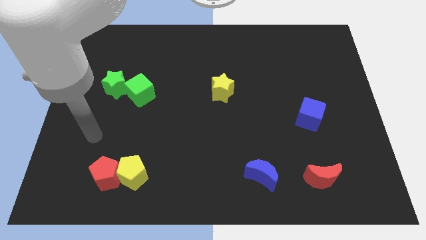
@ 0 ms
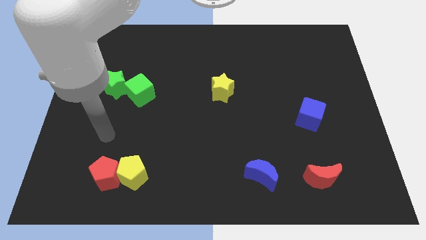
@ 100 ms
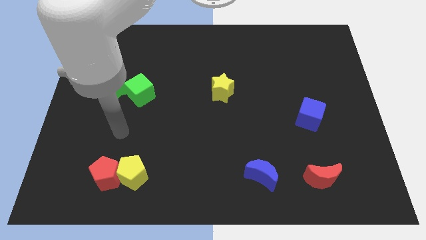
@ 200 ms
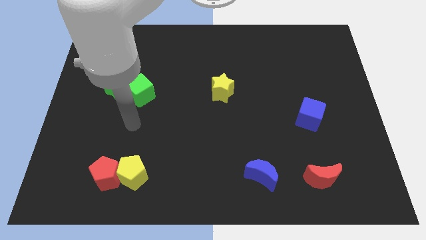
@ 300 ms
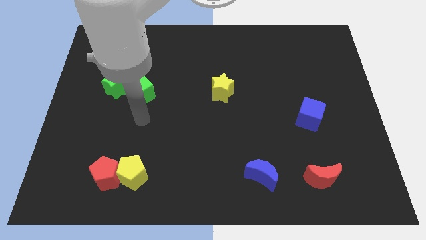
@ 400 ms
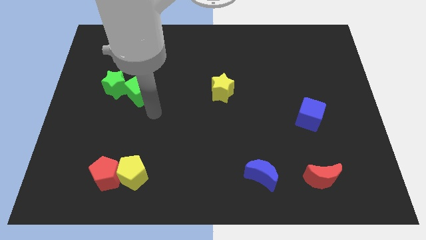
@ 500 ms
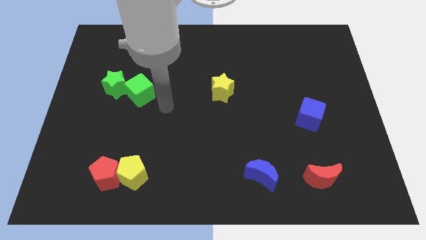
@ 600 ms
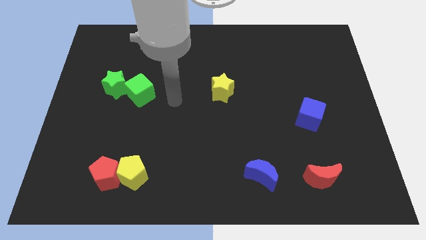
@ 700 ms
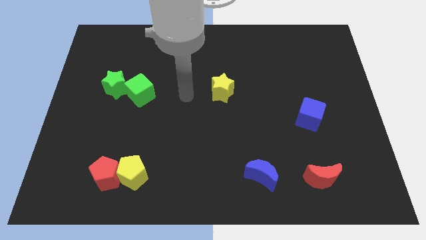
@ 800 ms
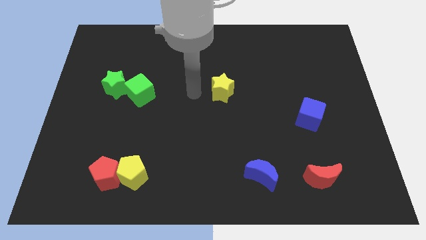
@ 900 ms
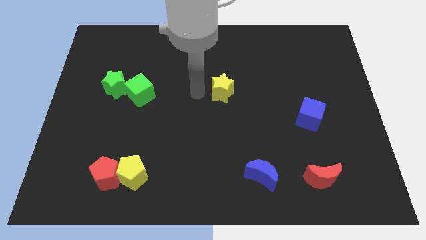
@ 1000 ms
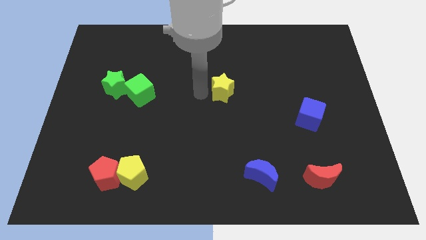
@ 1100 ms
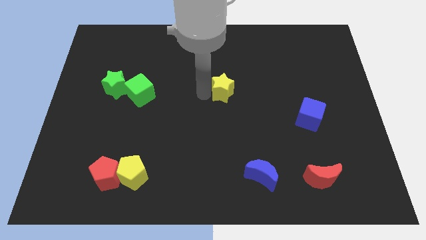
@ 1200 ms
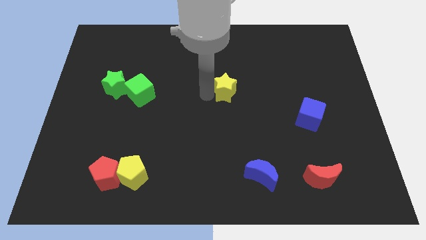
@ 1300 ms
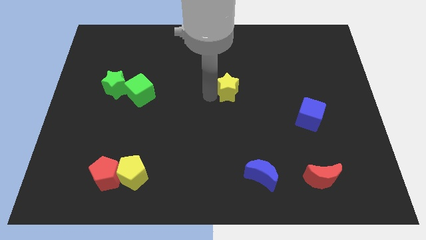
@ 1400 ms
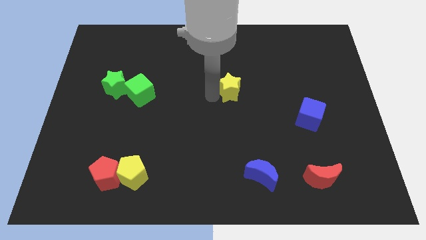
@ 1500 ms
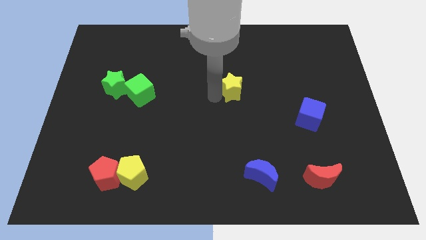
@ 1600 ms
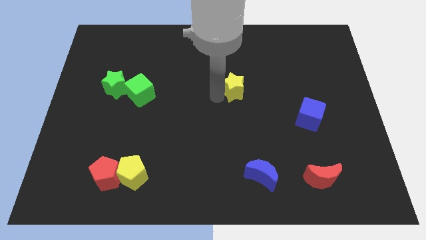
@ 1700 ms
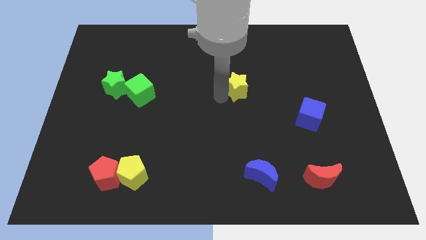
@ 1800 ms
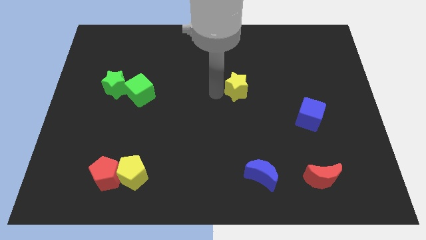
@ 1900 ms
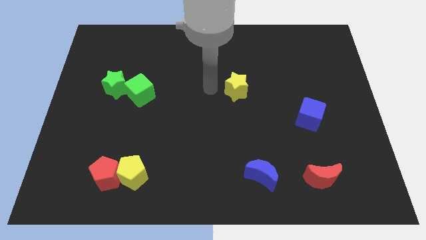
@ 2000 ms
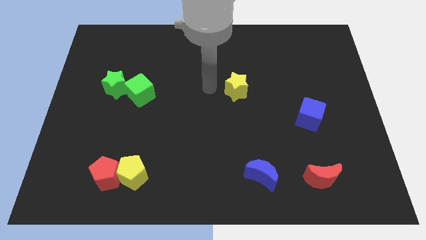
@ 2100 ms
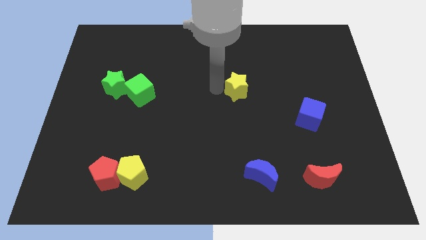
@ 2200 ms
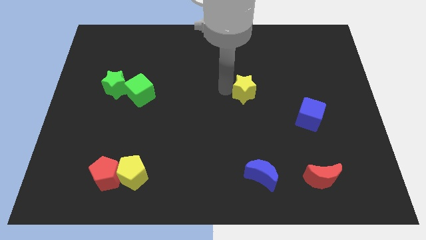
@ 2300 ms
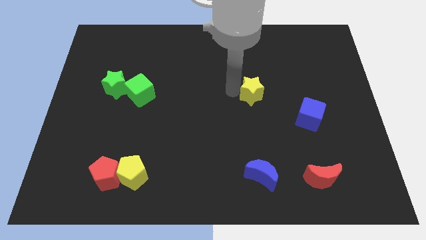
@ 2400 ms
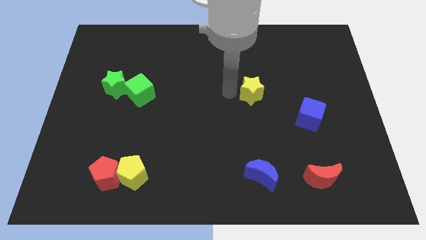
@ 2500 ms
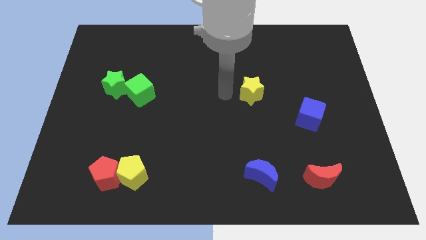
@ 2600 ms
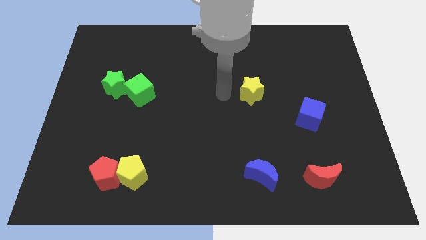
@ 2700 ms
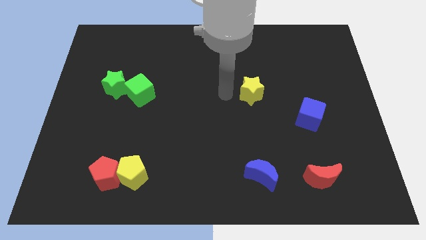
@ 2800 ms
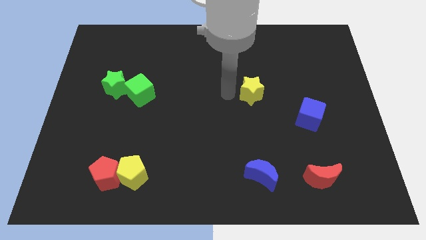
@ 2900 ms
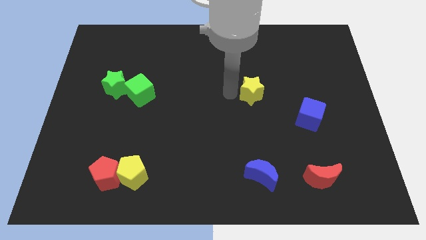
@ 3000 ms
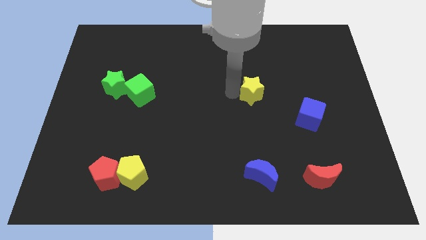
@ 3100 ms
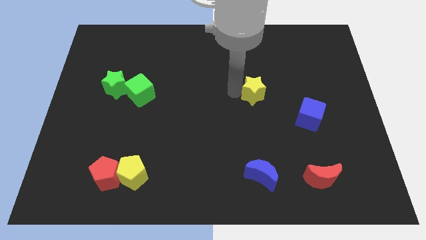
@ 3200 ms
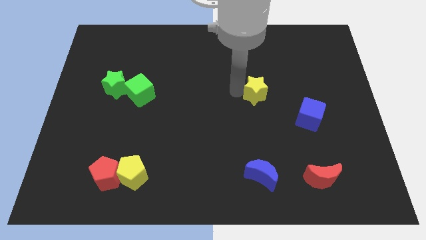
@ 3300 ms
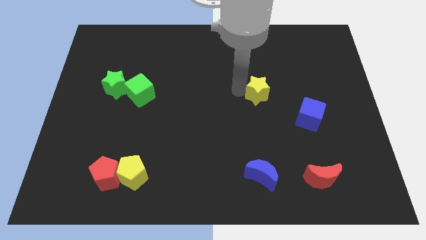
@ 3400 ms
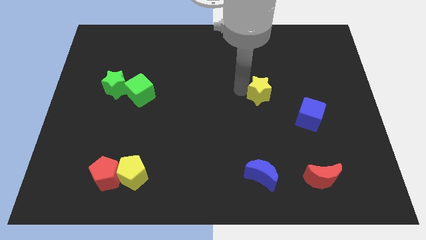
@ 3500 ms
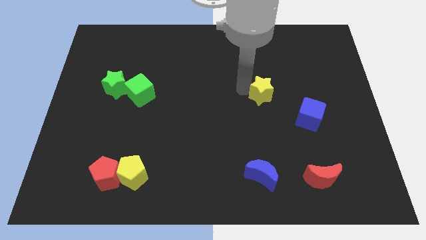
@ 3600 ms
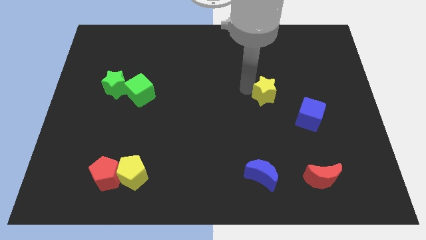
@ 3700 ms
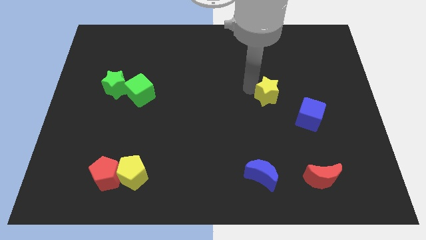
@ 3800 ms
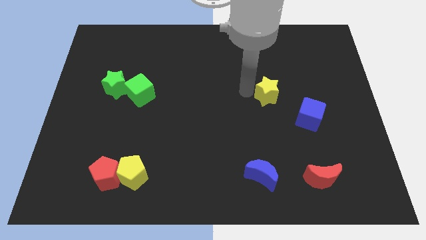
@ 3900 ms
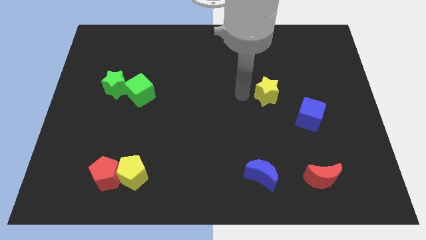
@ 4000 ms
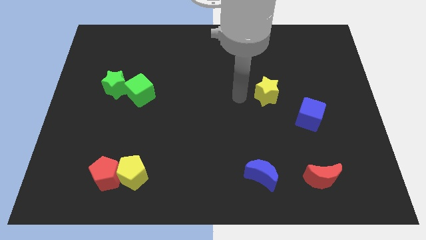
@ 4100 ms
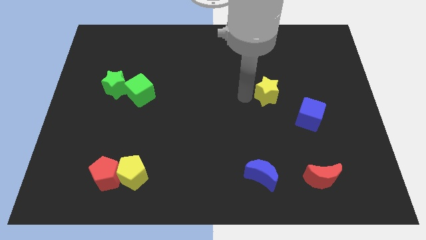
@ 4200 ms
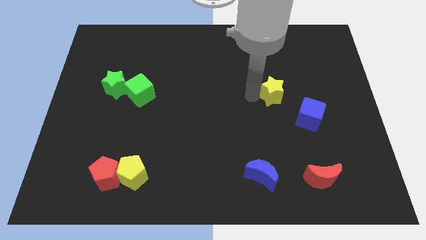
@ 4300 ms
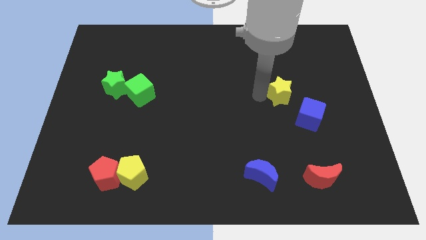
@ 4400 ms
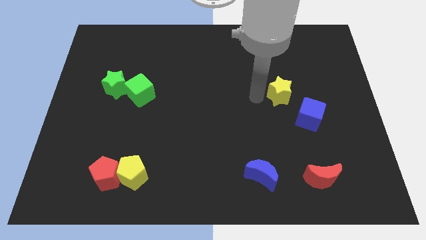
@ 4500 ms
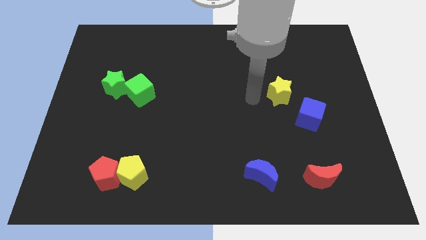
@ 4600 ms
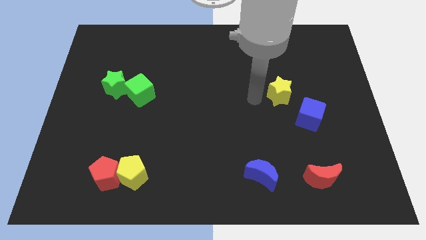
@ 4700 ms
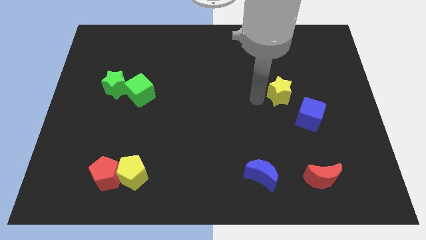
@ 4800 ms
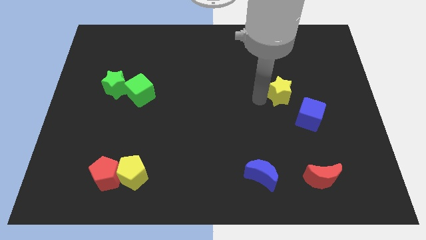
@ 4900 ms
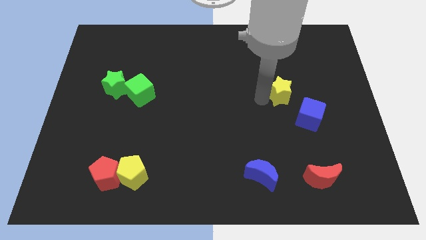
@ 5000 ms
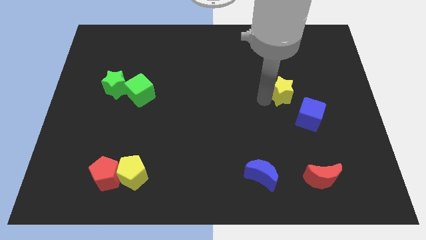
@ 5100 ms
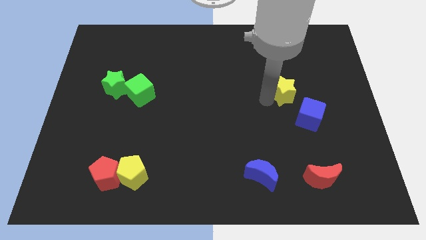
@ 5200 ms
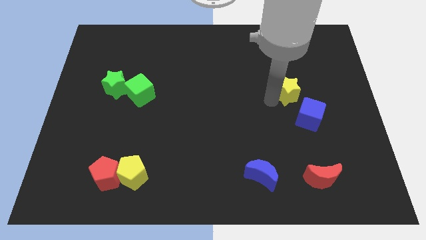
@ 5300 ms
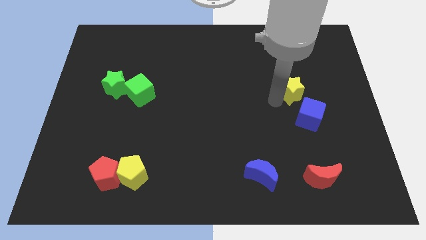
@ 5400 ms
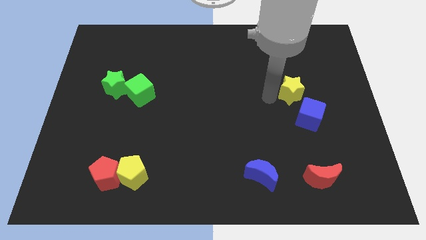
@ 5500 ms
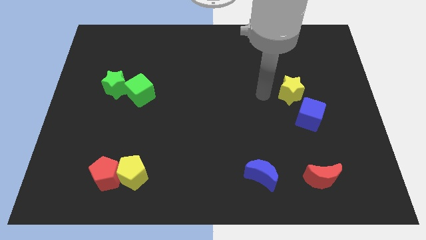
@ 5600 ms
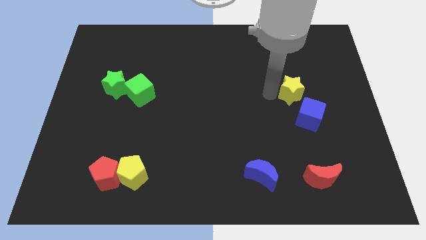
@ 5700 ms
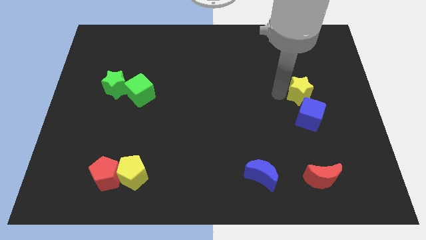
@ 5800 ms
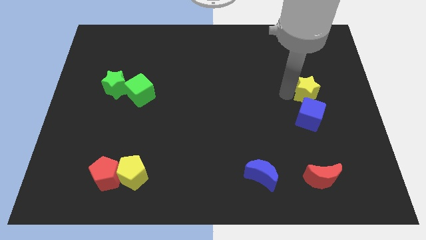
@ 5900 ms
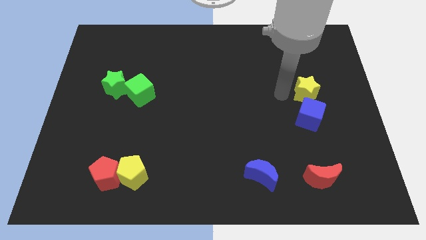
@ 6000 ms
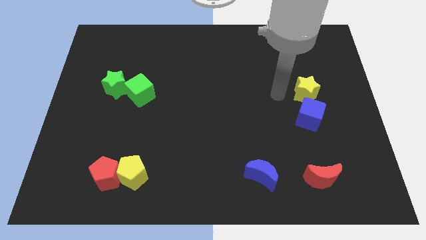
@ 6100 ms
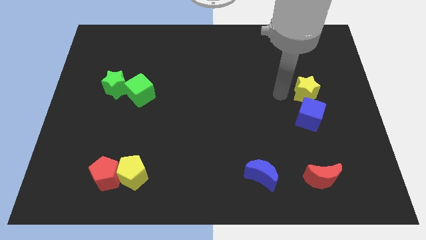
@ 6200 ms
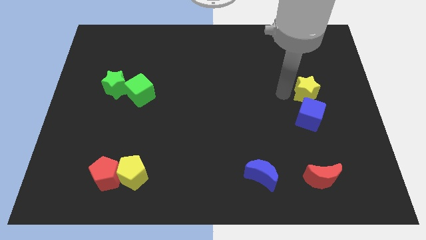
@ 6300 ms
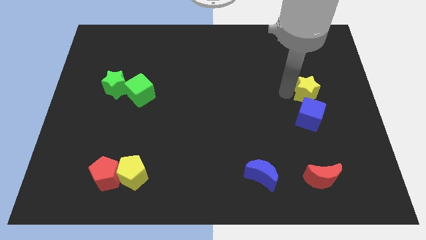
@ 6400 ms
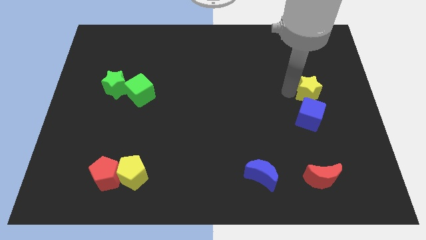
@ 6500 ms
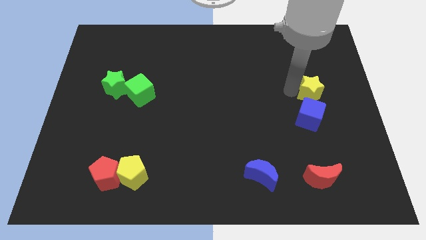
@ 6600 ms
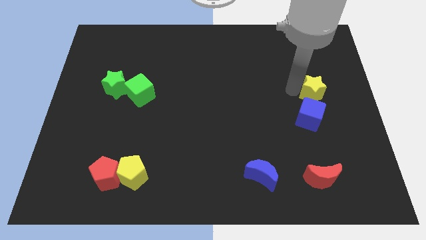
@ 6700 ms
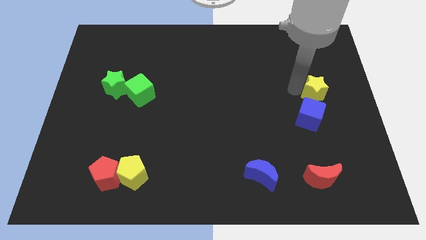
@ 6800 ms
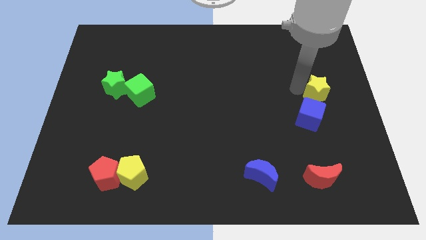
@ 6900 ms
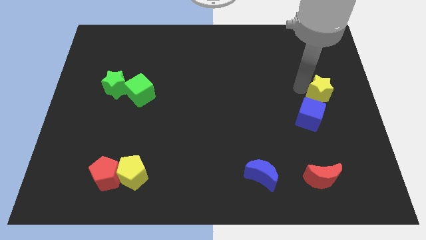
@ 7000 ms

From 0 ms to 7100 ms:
put the yellow star to the right side of the board
